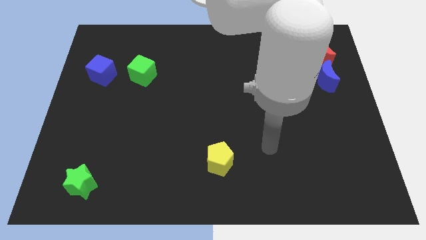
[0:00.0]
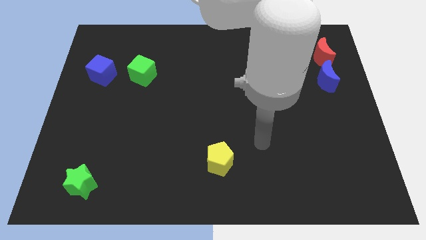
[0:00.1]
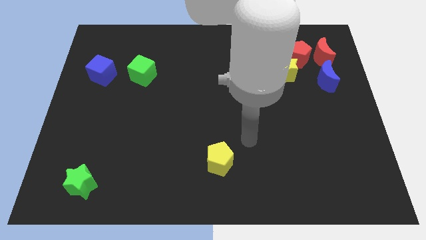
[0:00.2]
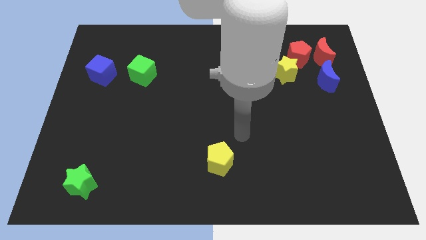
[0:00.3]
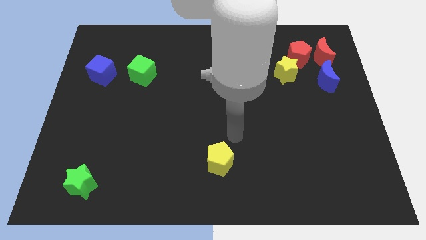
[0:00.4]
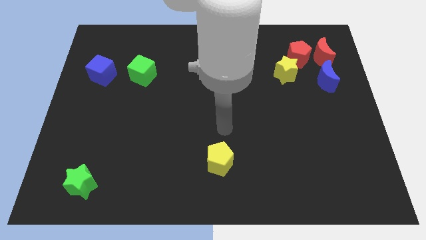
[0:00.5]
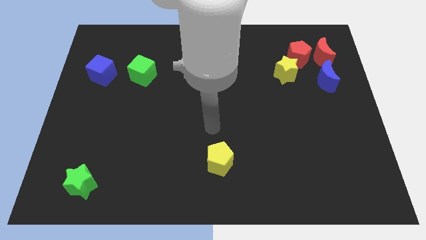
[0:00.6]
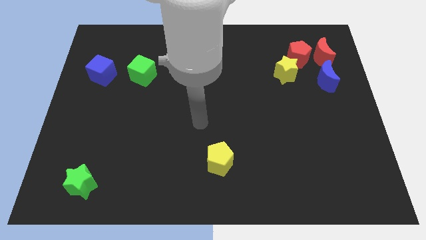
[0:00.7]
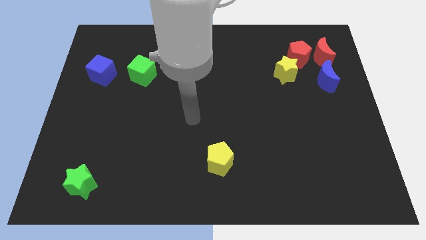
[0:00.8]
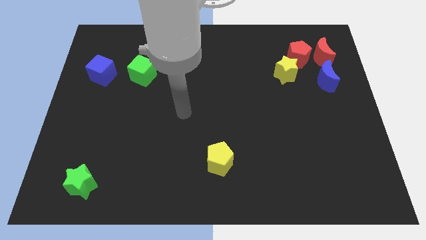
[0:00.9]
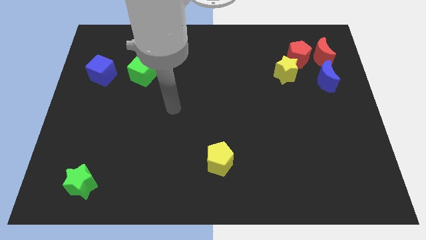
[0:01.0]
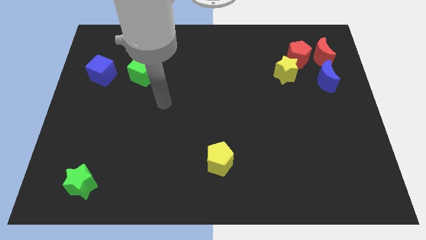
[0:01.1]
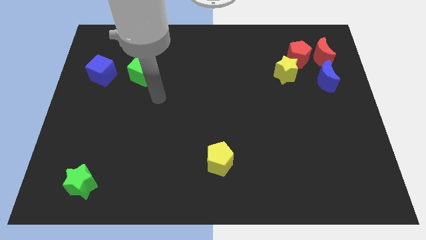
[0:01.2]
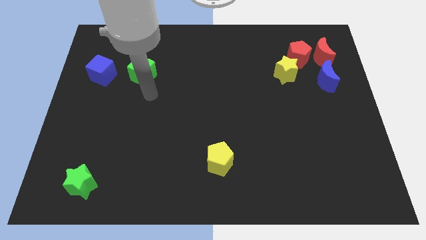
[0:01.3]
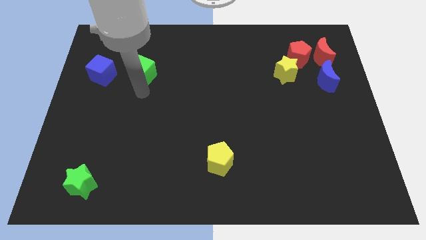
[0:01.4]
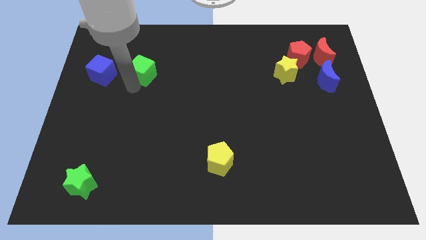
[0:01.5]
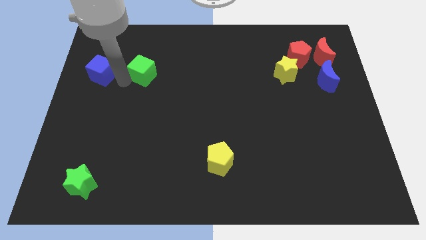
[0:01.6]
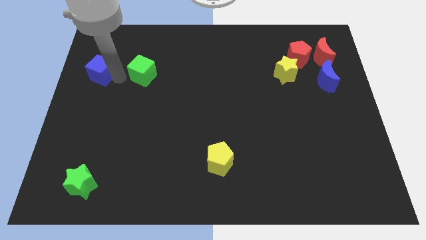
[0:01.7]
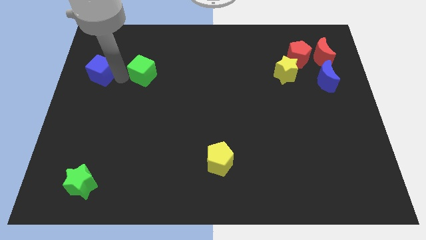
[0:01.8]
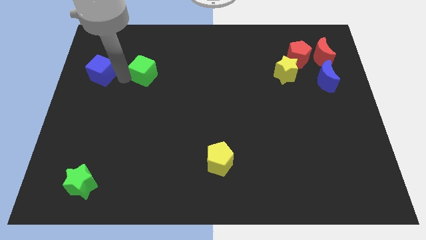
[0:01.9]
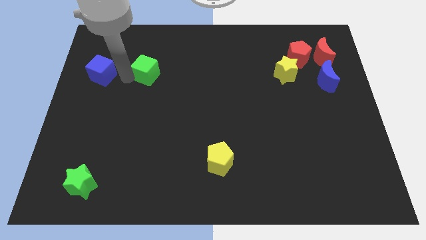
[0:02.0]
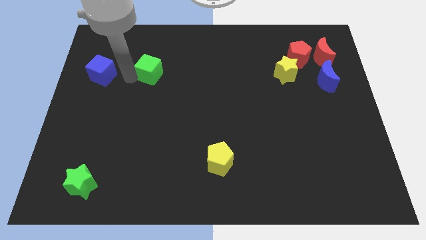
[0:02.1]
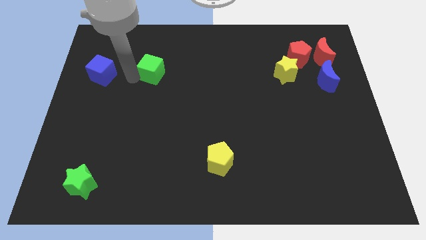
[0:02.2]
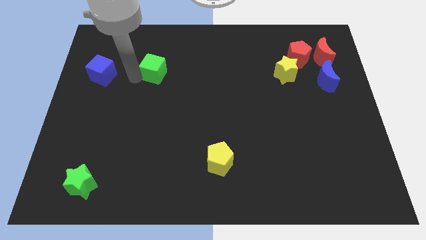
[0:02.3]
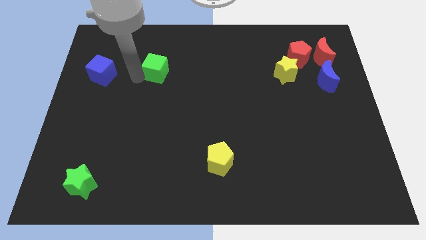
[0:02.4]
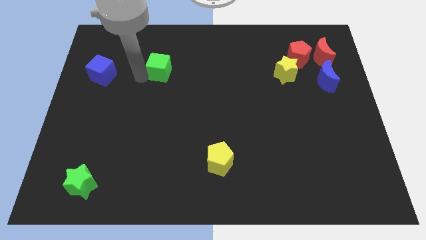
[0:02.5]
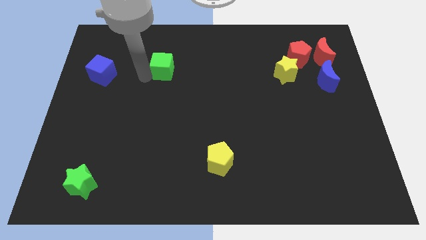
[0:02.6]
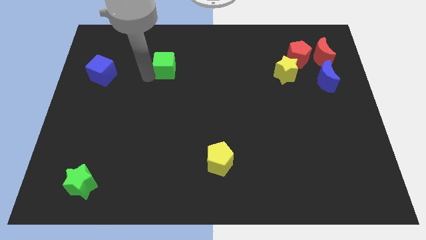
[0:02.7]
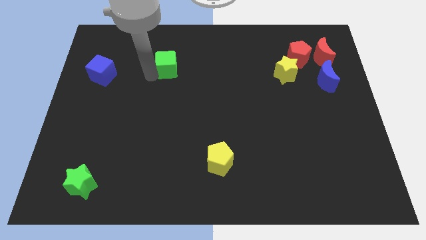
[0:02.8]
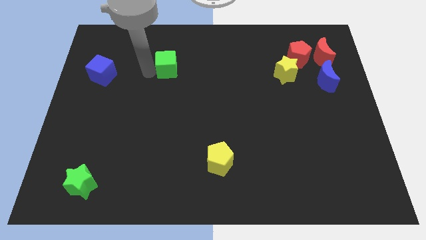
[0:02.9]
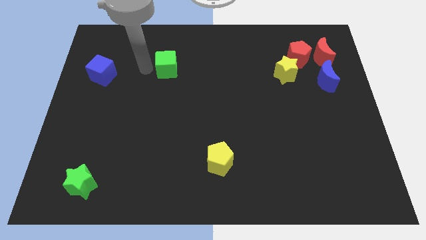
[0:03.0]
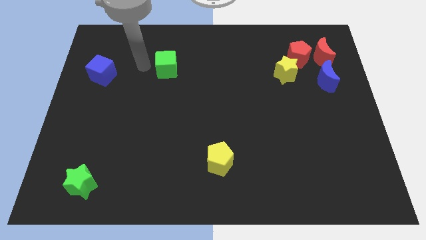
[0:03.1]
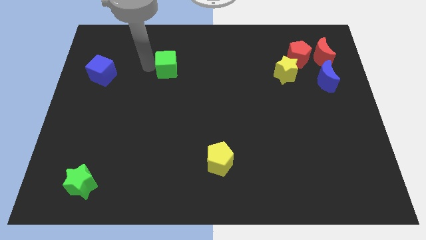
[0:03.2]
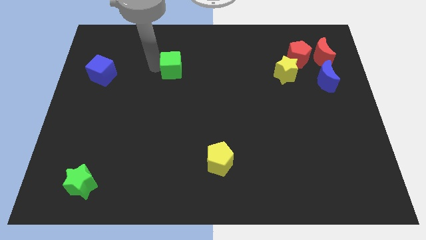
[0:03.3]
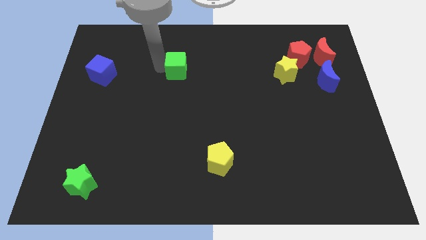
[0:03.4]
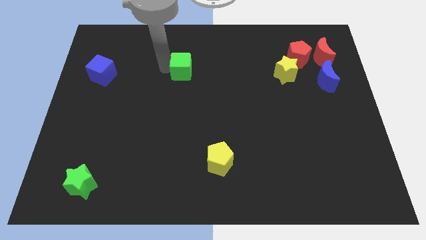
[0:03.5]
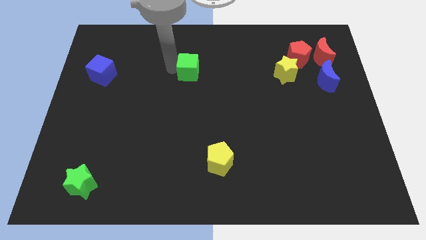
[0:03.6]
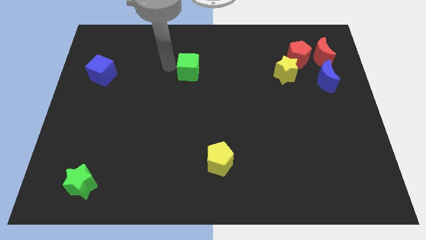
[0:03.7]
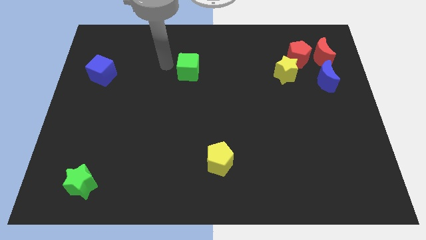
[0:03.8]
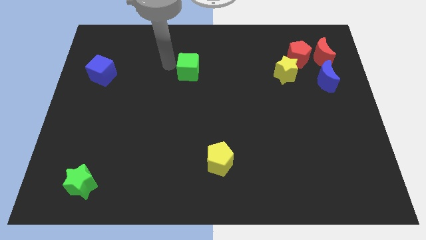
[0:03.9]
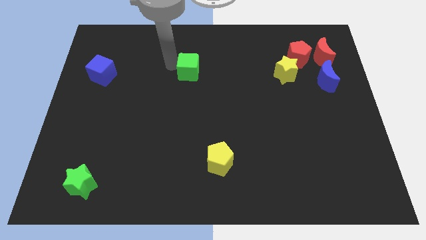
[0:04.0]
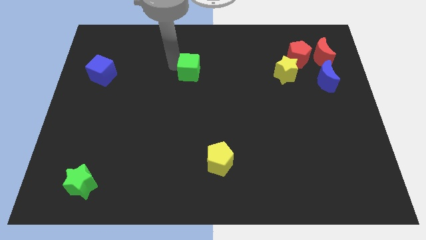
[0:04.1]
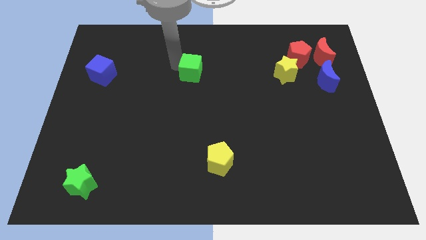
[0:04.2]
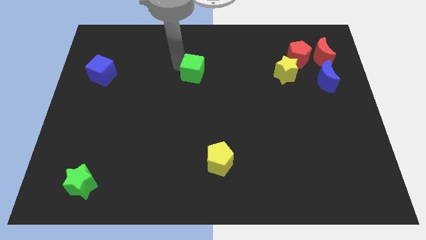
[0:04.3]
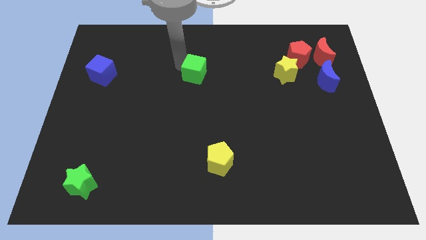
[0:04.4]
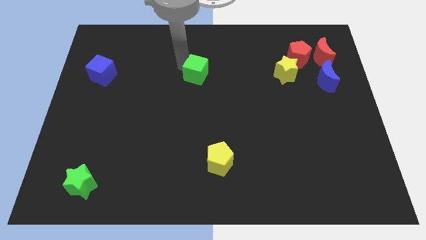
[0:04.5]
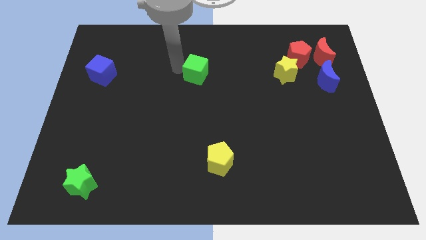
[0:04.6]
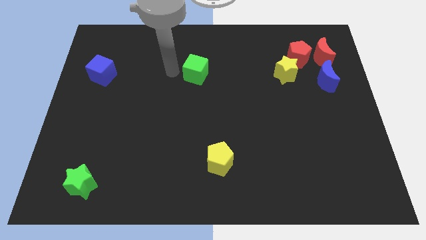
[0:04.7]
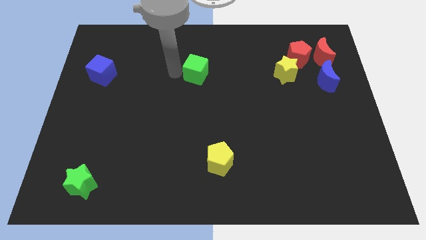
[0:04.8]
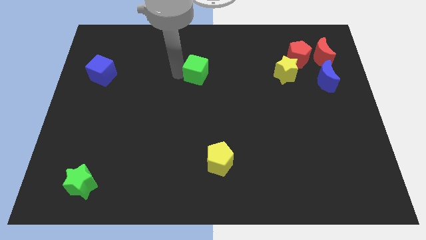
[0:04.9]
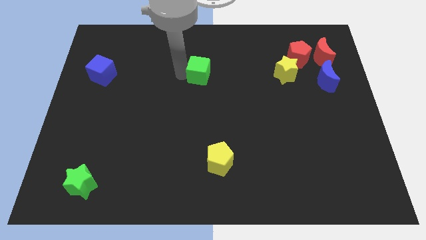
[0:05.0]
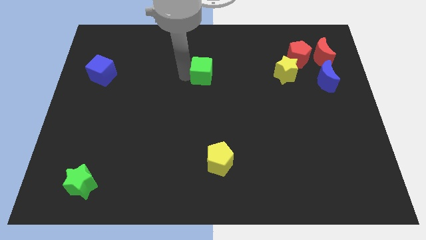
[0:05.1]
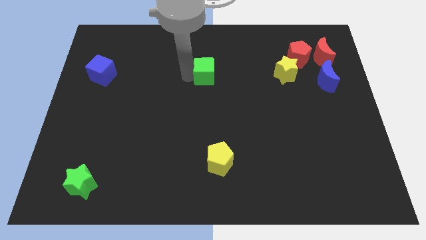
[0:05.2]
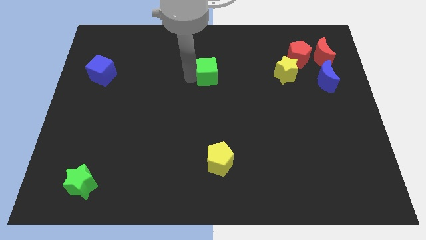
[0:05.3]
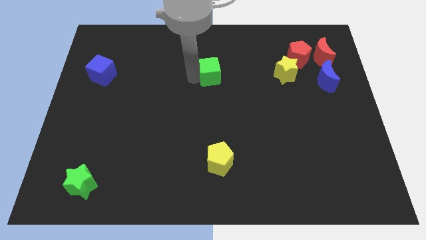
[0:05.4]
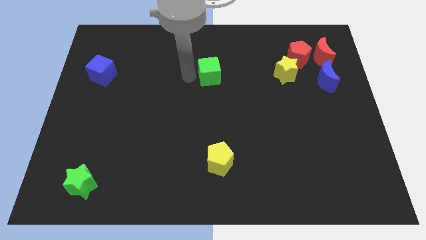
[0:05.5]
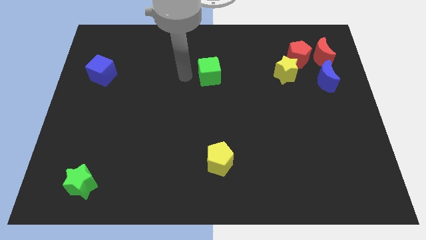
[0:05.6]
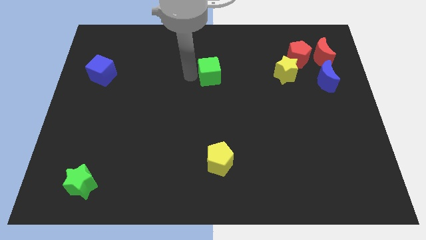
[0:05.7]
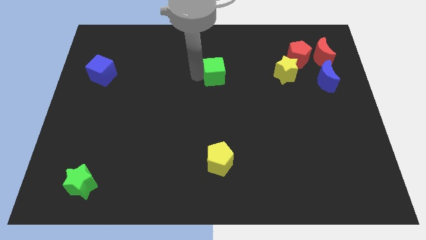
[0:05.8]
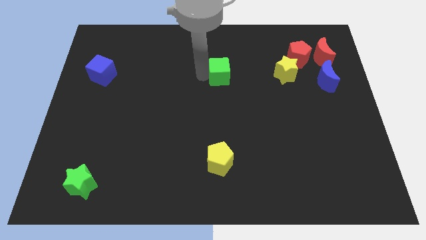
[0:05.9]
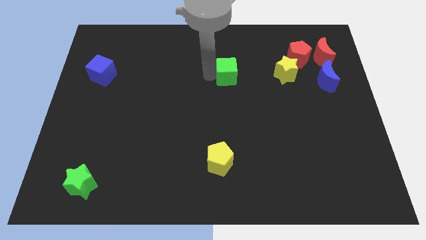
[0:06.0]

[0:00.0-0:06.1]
slide the green cube just left of the yellow star
